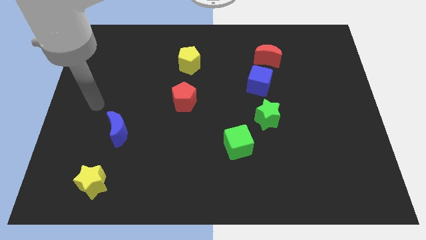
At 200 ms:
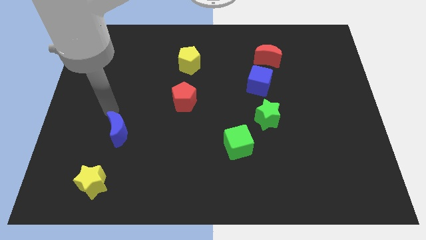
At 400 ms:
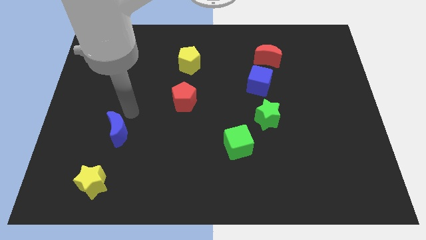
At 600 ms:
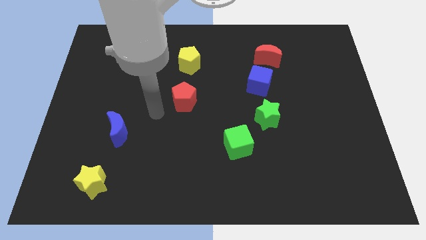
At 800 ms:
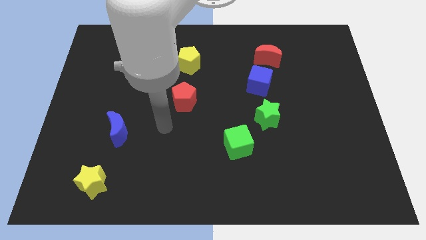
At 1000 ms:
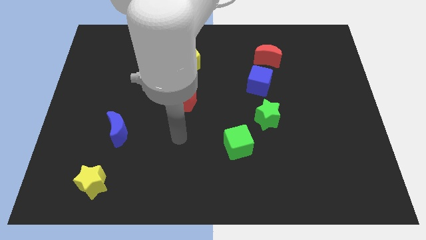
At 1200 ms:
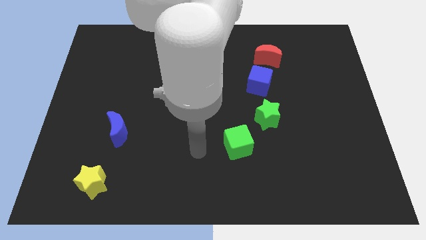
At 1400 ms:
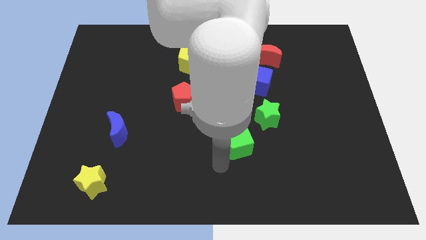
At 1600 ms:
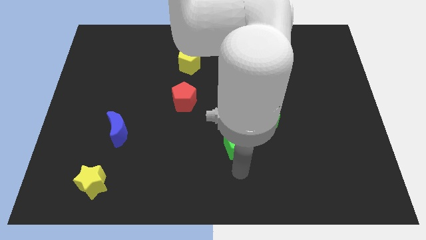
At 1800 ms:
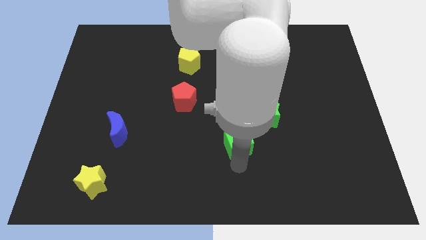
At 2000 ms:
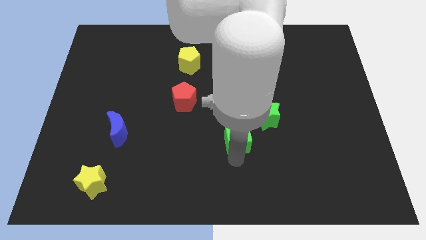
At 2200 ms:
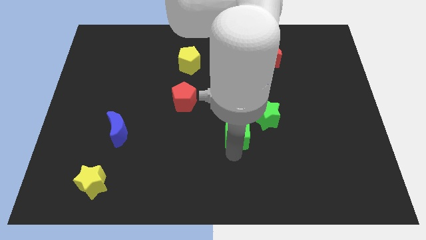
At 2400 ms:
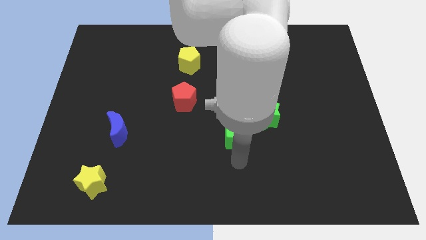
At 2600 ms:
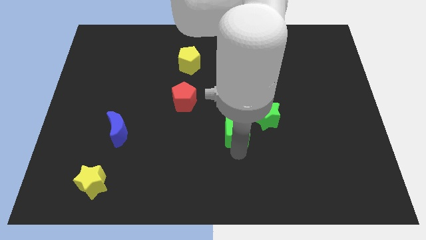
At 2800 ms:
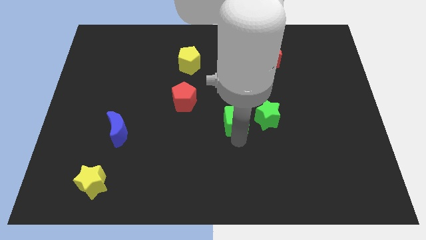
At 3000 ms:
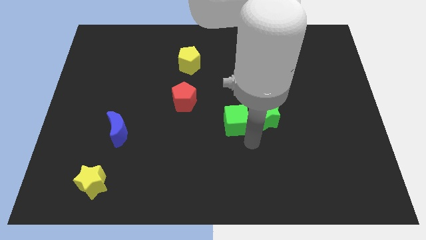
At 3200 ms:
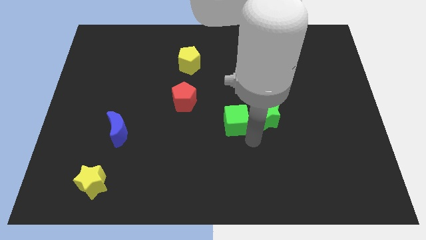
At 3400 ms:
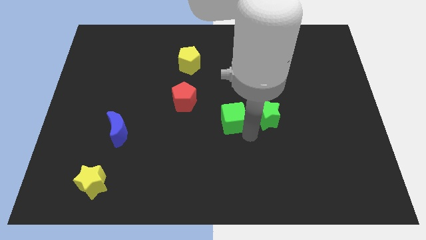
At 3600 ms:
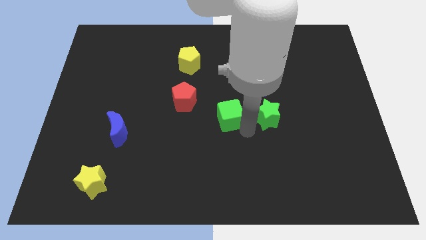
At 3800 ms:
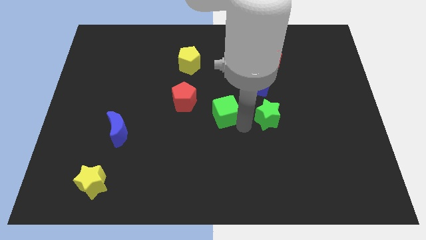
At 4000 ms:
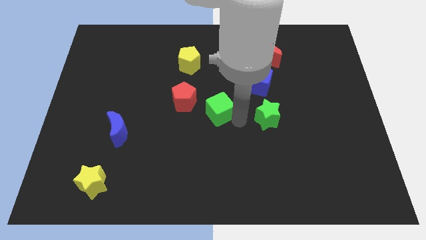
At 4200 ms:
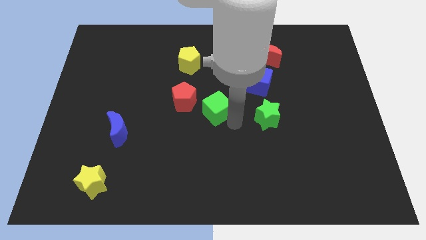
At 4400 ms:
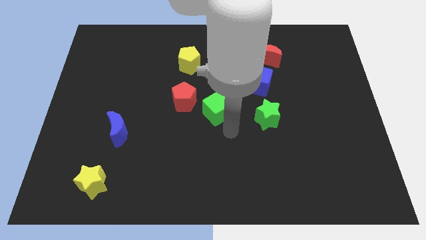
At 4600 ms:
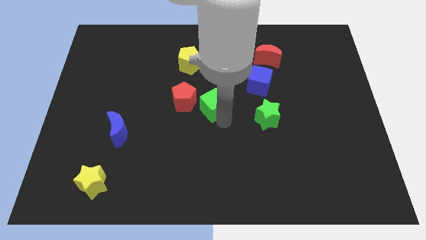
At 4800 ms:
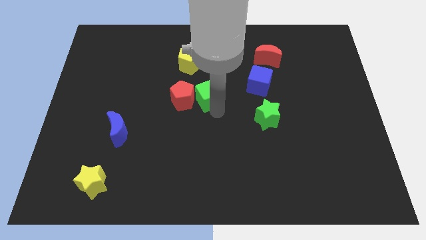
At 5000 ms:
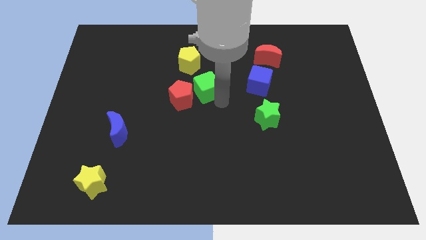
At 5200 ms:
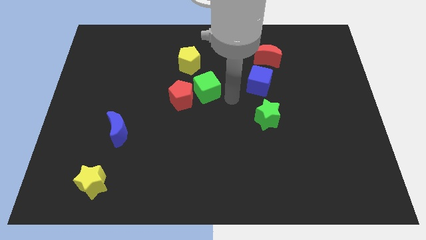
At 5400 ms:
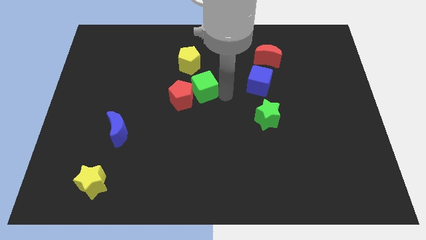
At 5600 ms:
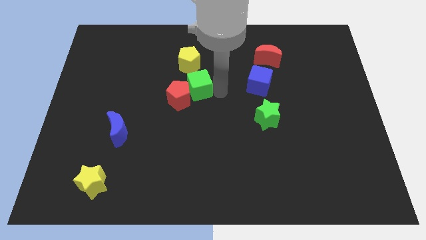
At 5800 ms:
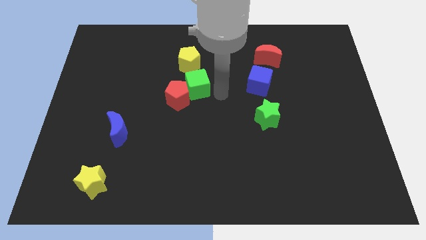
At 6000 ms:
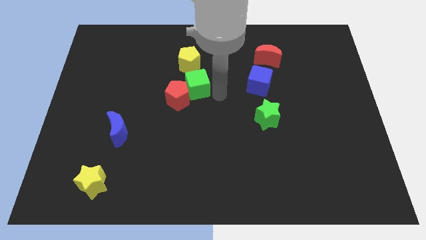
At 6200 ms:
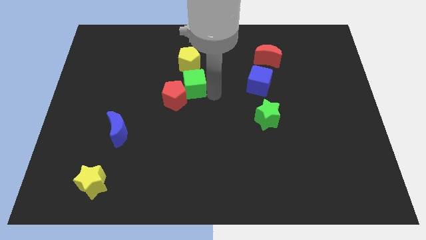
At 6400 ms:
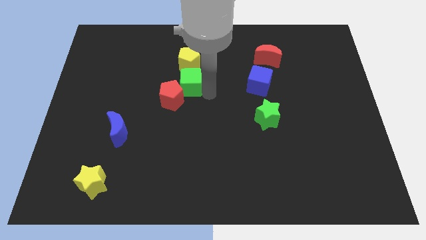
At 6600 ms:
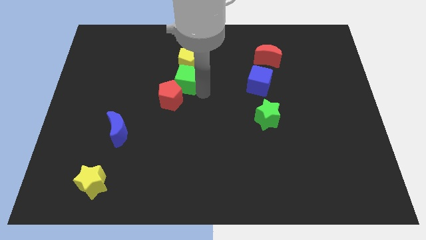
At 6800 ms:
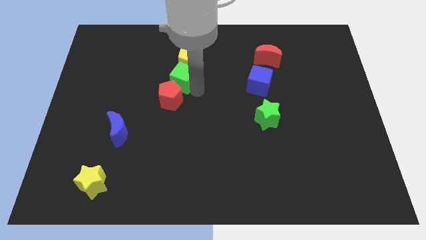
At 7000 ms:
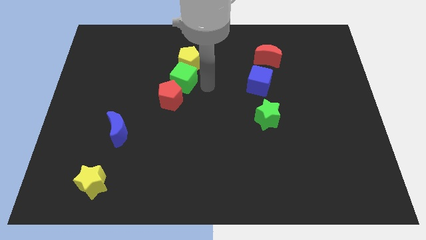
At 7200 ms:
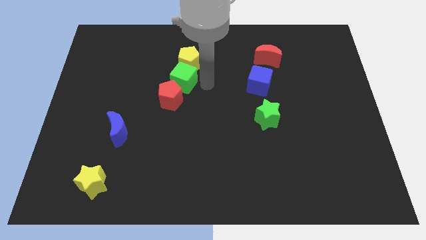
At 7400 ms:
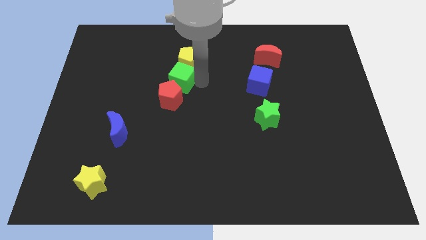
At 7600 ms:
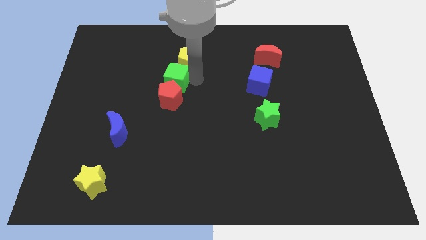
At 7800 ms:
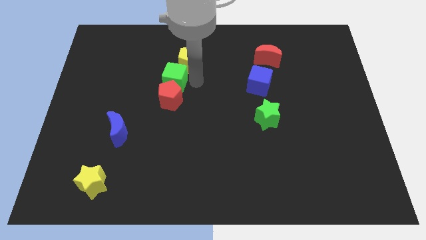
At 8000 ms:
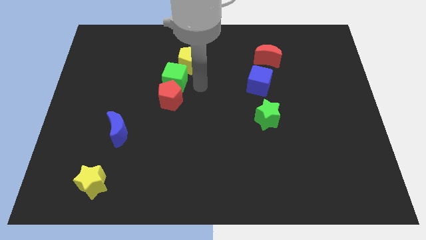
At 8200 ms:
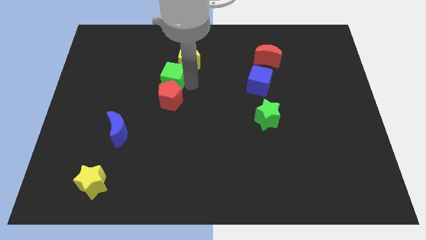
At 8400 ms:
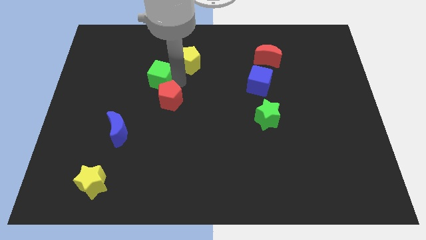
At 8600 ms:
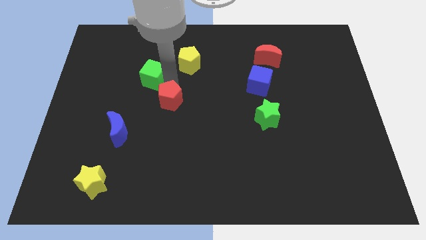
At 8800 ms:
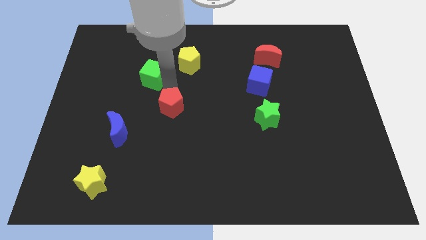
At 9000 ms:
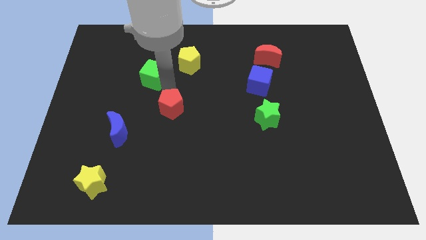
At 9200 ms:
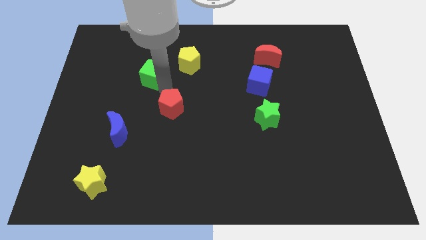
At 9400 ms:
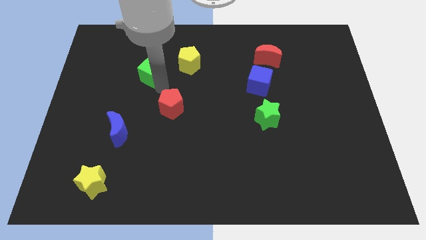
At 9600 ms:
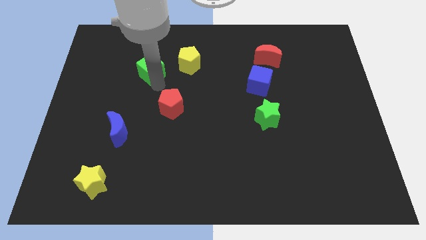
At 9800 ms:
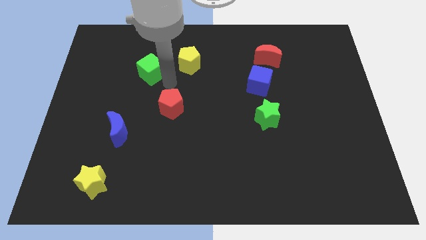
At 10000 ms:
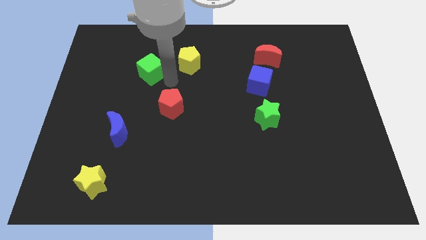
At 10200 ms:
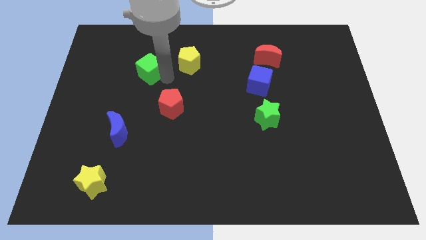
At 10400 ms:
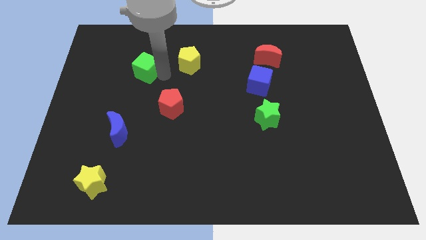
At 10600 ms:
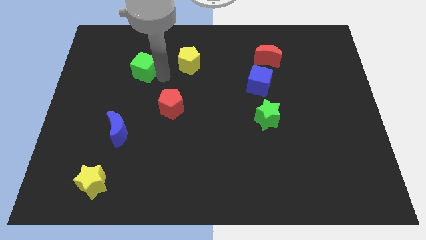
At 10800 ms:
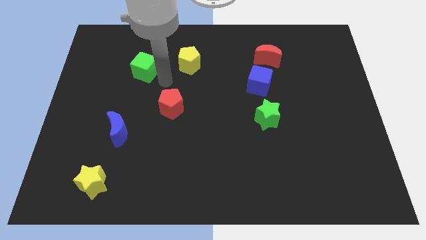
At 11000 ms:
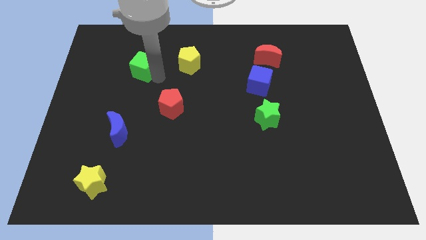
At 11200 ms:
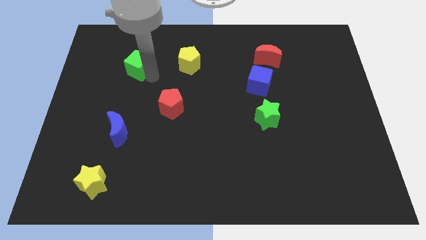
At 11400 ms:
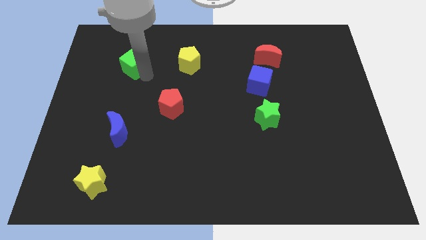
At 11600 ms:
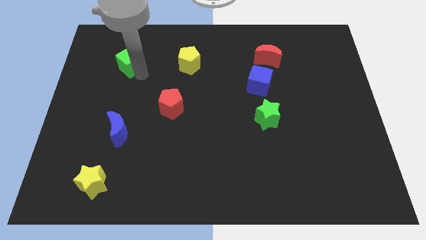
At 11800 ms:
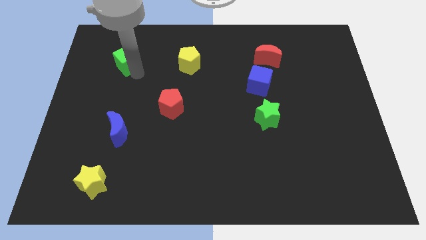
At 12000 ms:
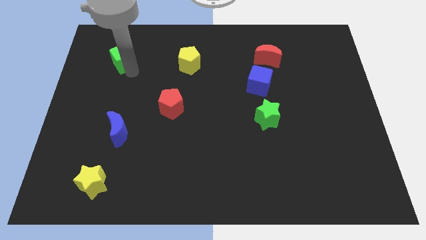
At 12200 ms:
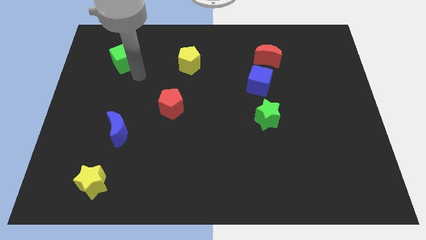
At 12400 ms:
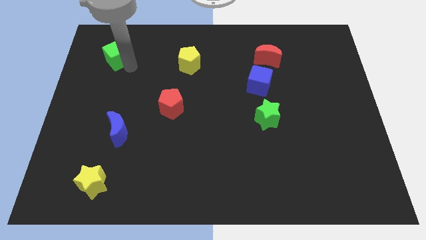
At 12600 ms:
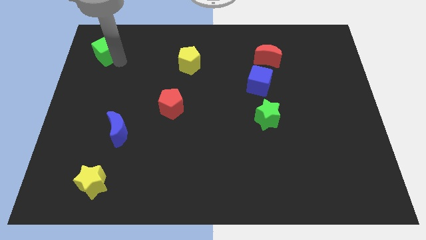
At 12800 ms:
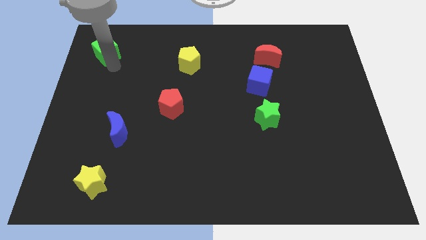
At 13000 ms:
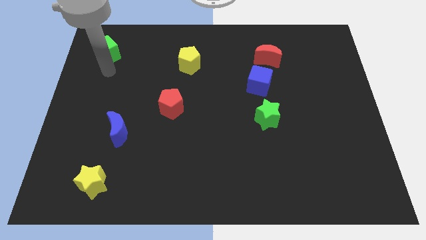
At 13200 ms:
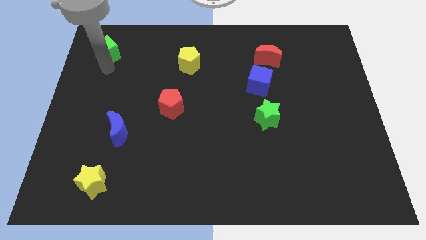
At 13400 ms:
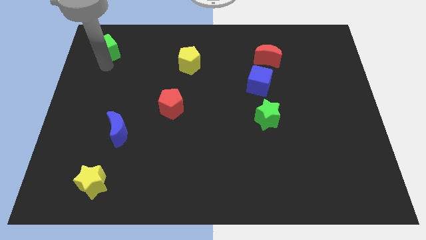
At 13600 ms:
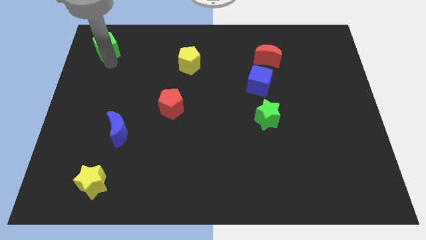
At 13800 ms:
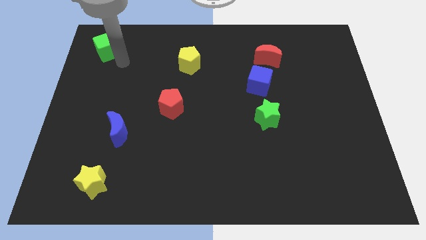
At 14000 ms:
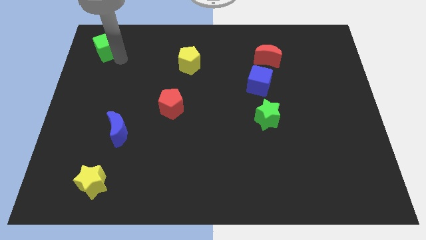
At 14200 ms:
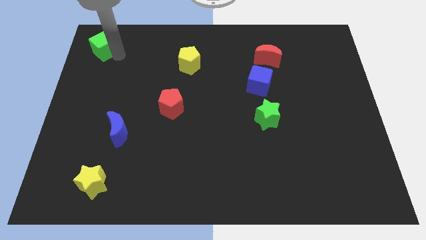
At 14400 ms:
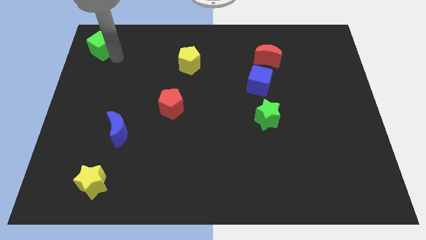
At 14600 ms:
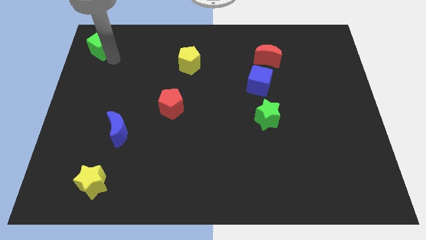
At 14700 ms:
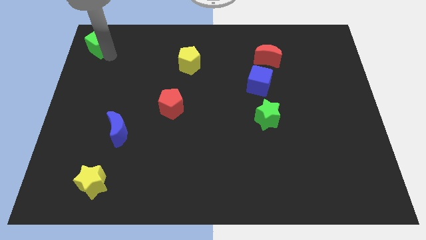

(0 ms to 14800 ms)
put the green cube to the top left of the board
